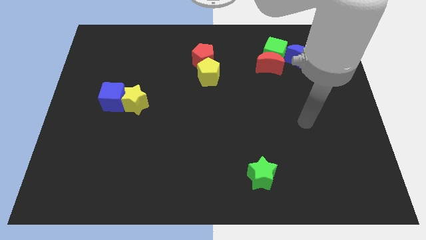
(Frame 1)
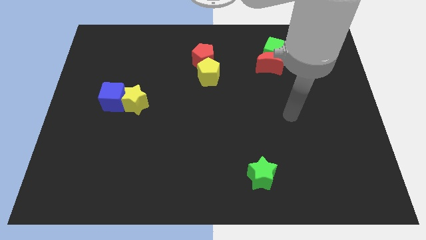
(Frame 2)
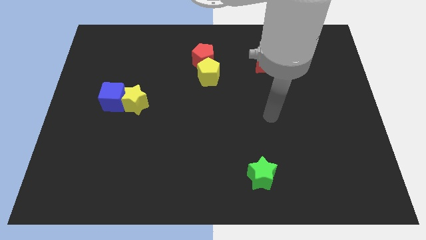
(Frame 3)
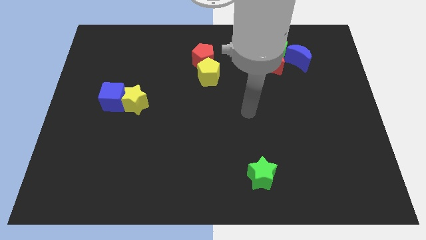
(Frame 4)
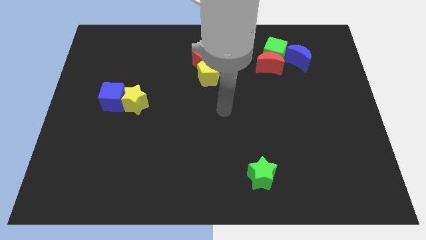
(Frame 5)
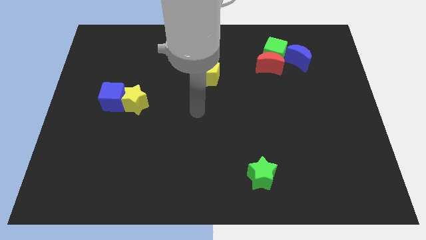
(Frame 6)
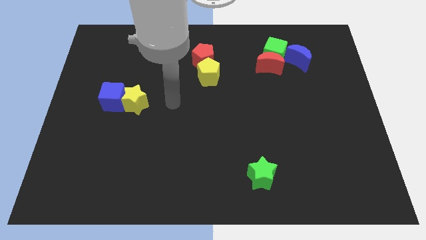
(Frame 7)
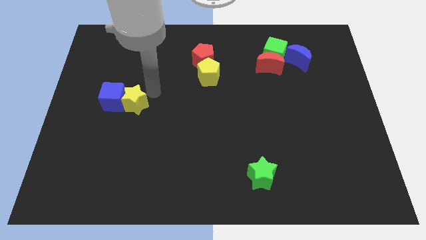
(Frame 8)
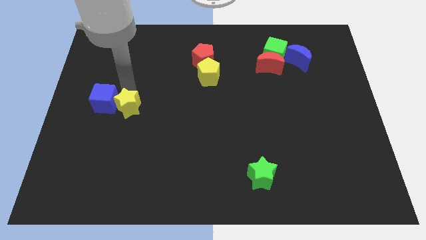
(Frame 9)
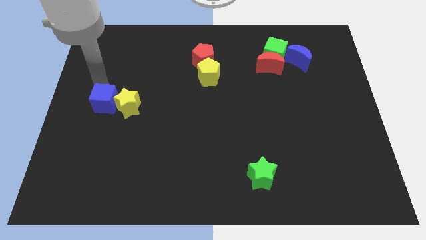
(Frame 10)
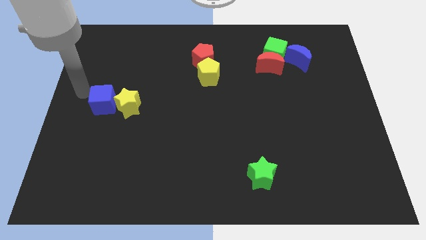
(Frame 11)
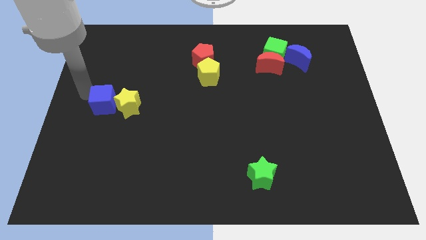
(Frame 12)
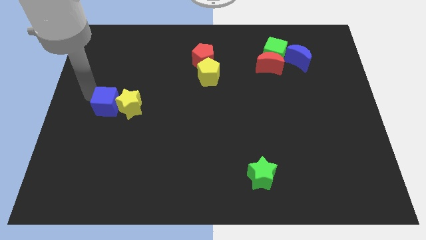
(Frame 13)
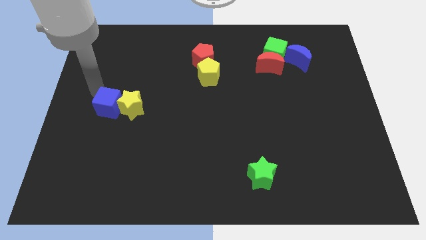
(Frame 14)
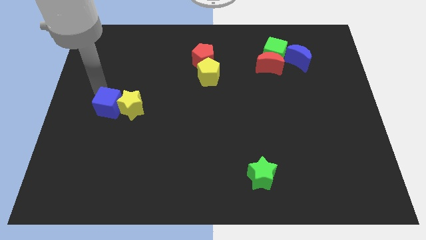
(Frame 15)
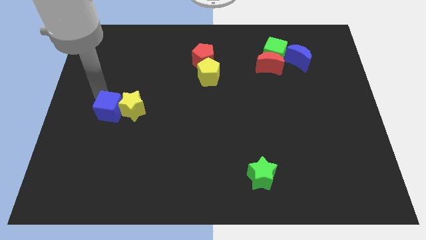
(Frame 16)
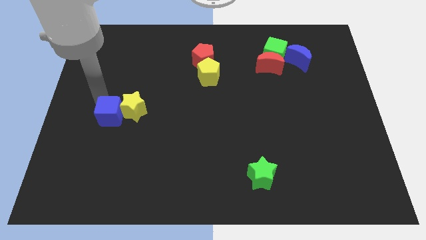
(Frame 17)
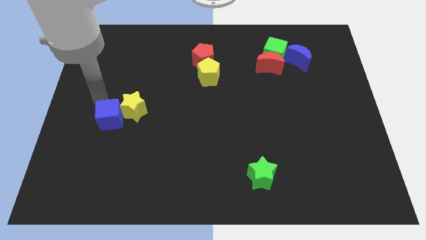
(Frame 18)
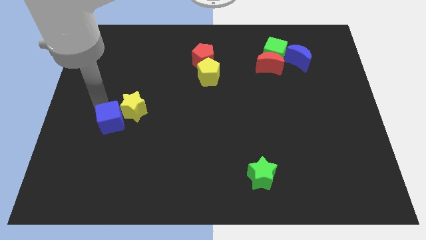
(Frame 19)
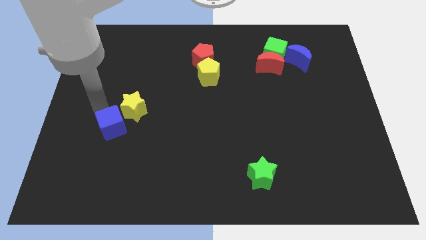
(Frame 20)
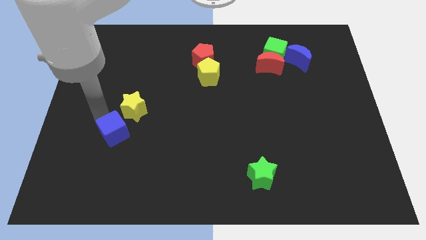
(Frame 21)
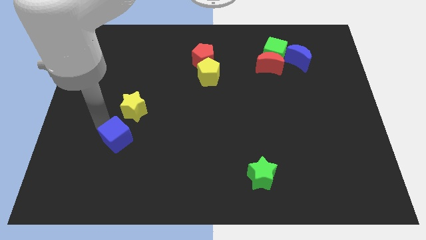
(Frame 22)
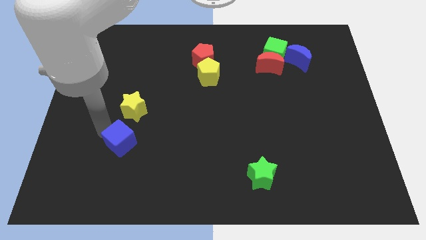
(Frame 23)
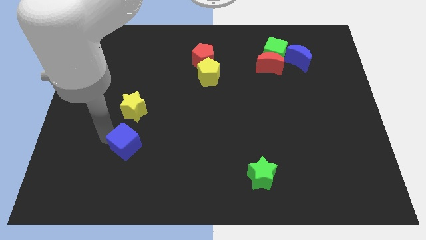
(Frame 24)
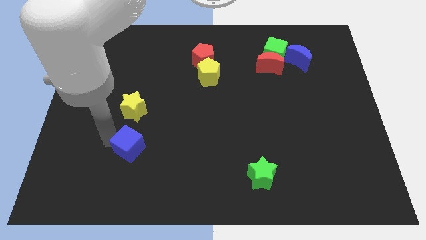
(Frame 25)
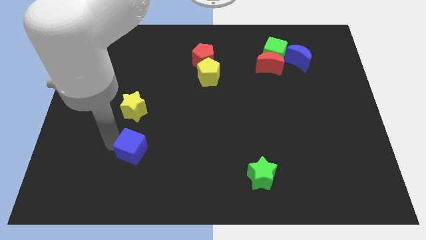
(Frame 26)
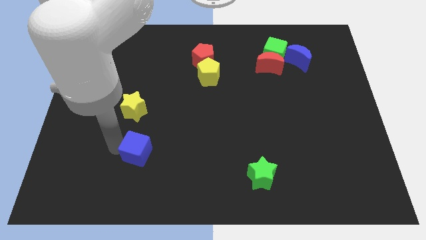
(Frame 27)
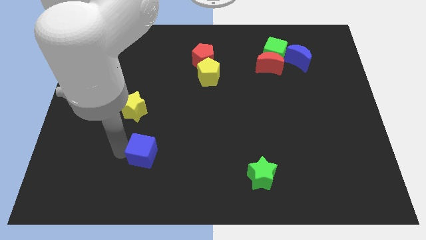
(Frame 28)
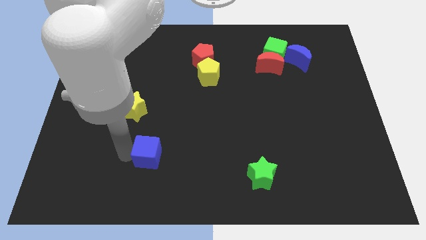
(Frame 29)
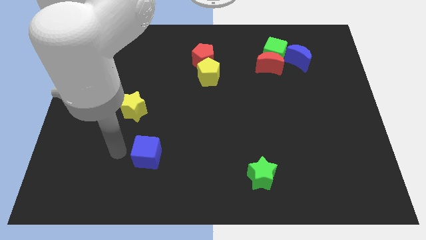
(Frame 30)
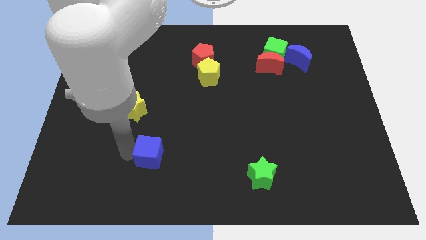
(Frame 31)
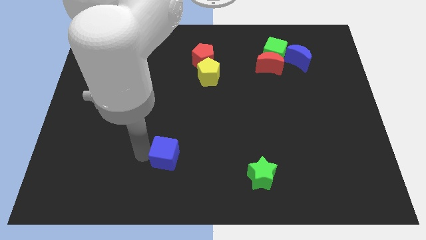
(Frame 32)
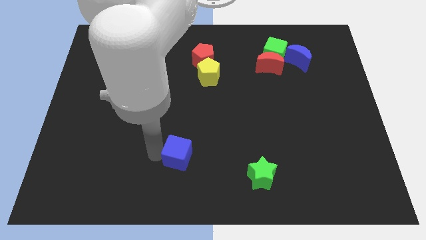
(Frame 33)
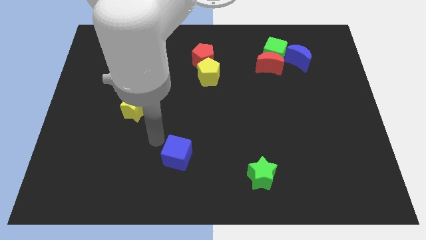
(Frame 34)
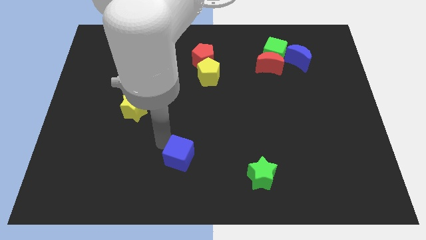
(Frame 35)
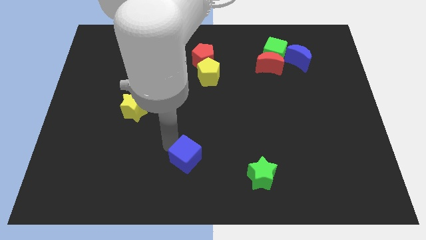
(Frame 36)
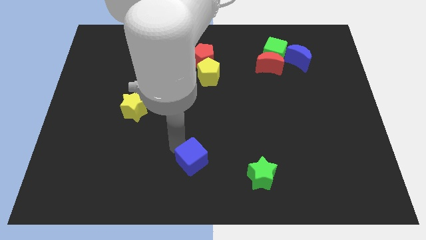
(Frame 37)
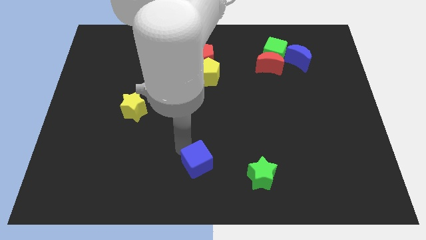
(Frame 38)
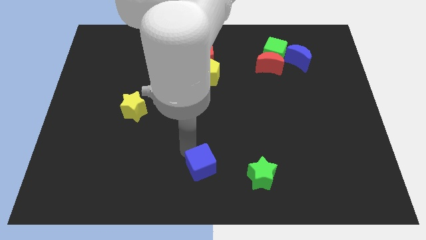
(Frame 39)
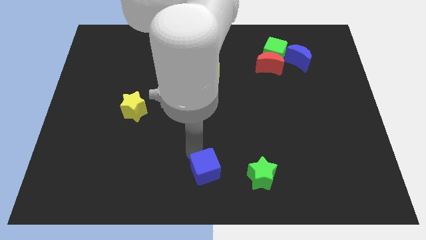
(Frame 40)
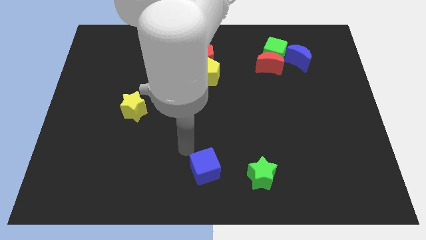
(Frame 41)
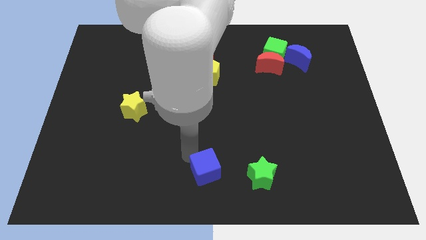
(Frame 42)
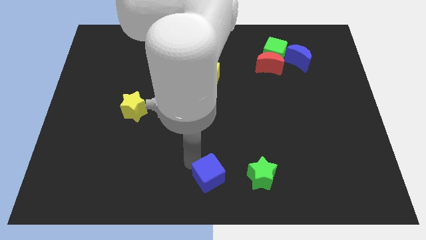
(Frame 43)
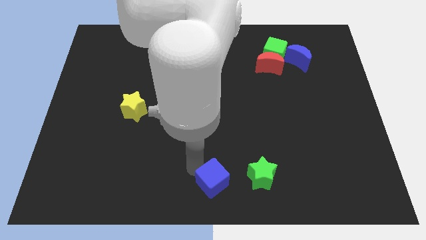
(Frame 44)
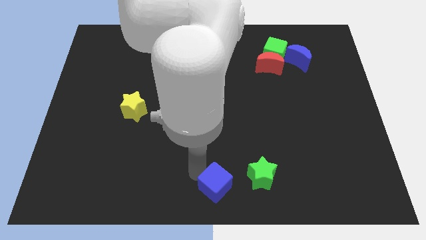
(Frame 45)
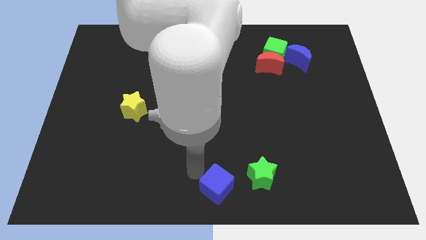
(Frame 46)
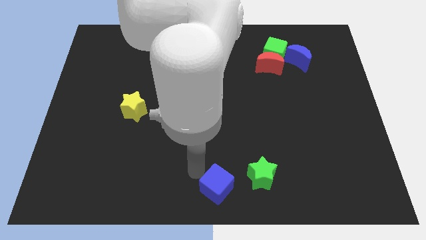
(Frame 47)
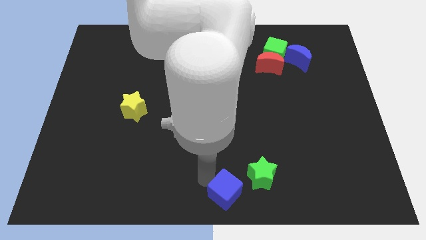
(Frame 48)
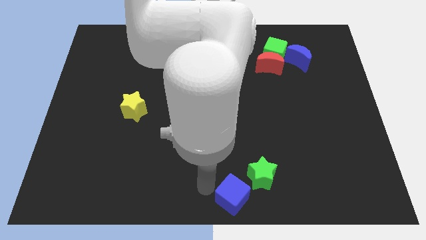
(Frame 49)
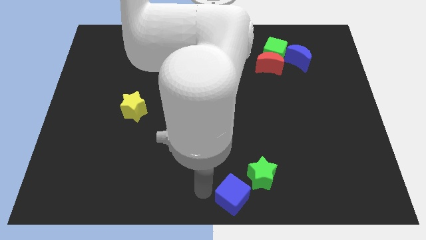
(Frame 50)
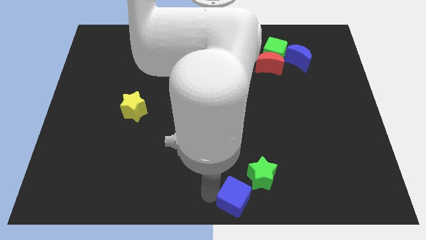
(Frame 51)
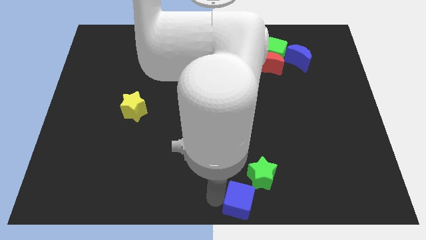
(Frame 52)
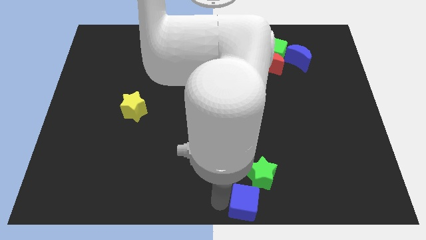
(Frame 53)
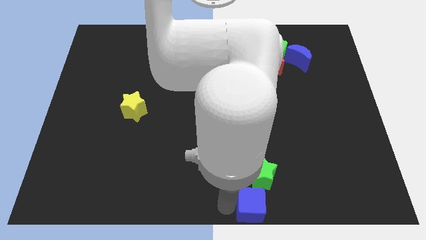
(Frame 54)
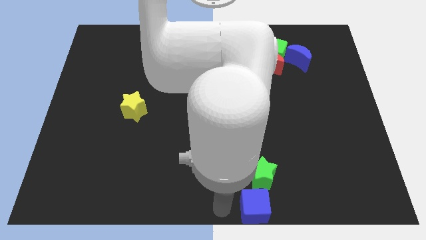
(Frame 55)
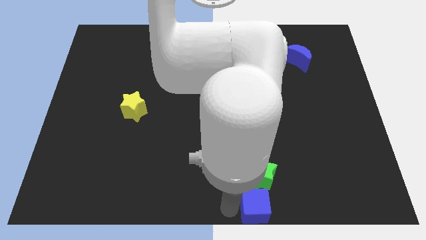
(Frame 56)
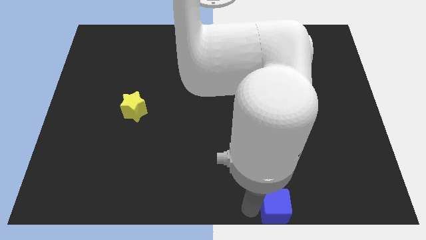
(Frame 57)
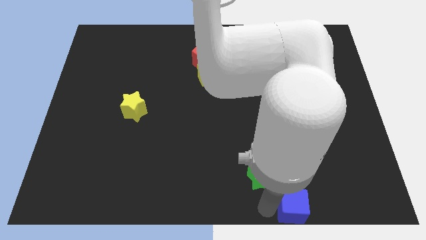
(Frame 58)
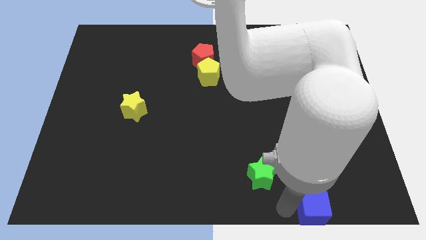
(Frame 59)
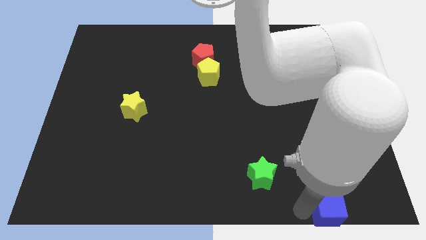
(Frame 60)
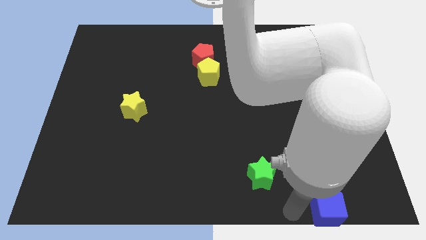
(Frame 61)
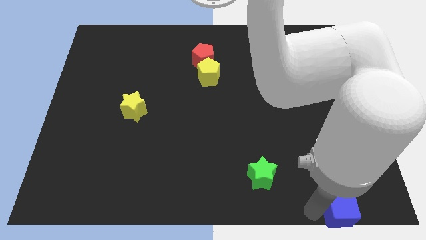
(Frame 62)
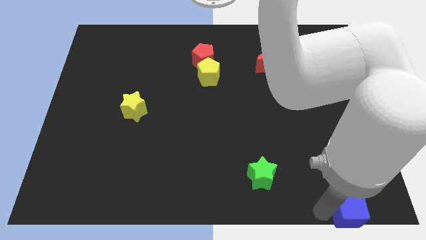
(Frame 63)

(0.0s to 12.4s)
push the blue cube to the bottom right of the board

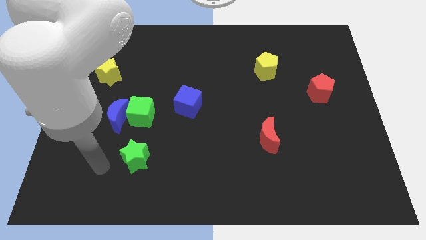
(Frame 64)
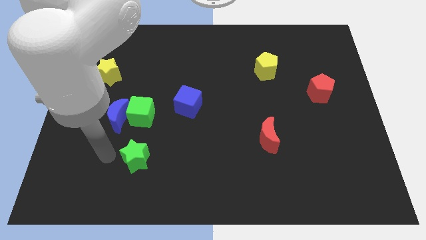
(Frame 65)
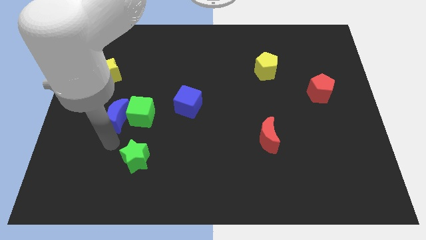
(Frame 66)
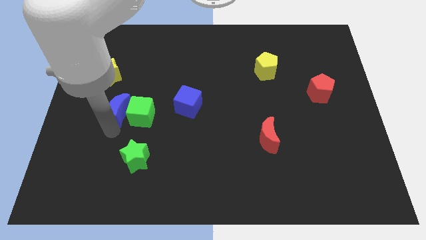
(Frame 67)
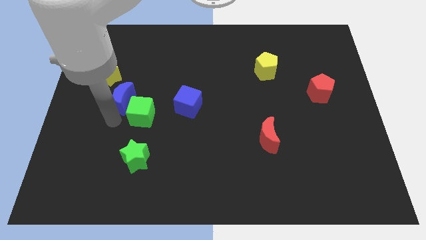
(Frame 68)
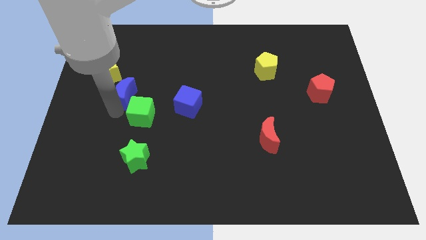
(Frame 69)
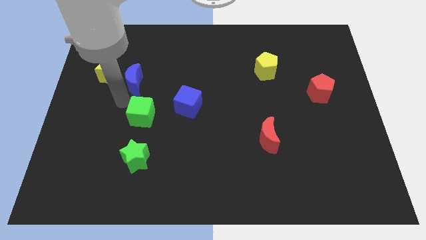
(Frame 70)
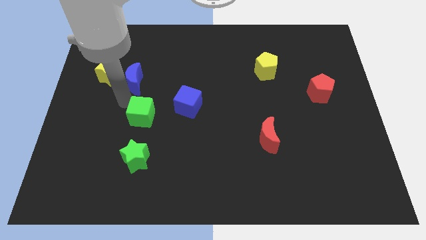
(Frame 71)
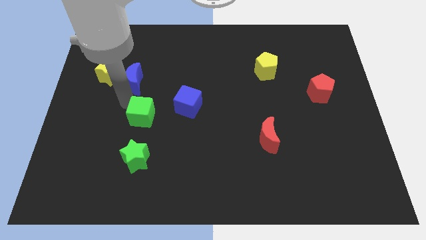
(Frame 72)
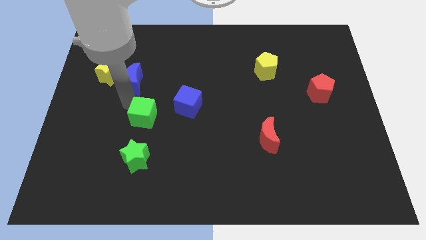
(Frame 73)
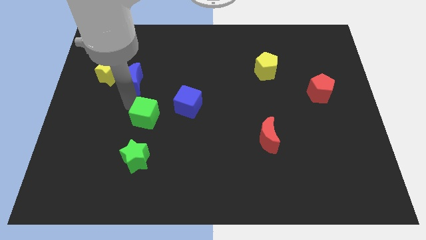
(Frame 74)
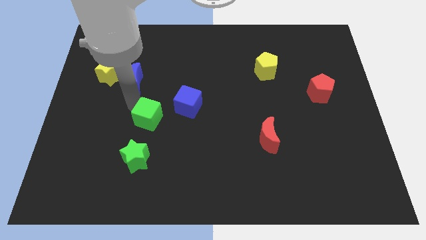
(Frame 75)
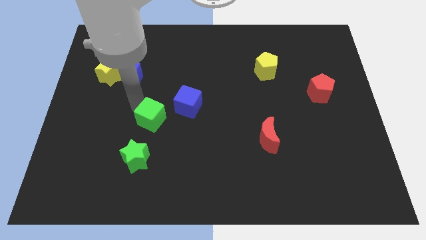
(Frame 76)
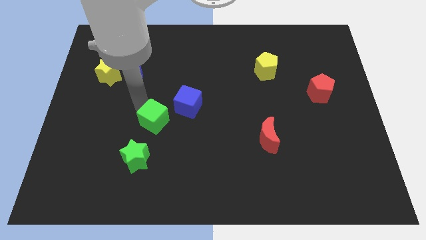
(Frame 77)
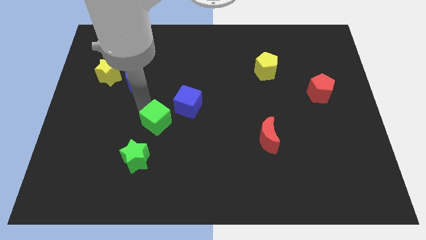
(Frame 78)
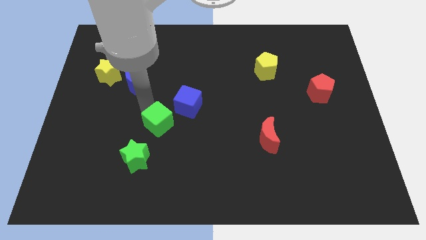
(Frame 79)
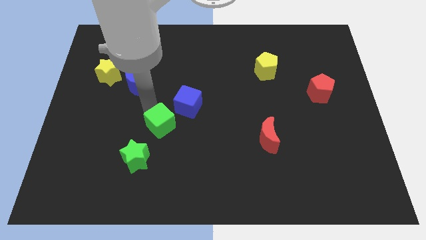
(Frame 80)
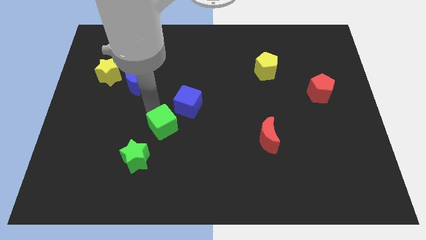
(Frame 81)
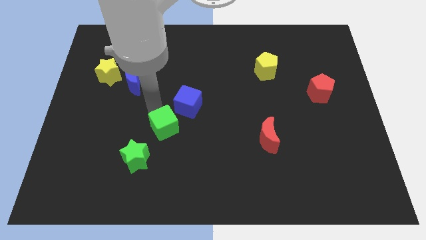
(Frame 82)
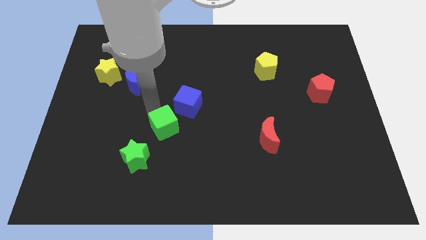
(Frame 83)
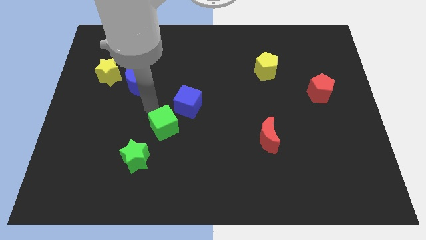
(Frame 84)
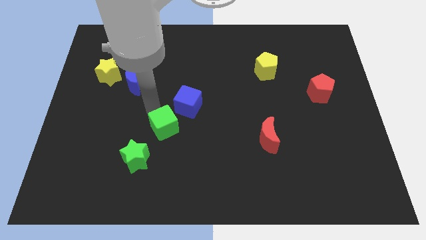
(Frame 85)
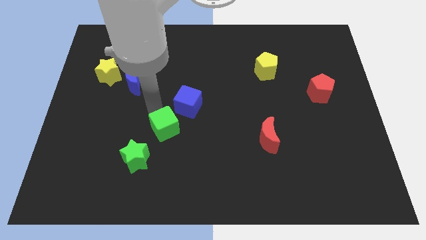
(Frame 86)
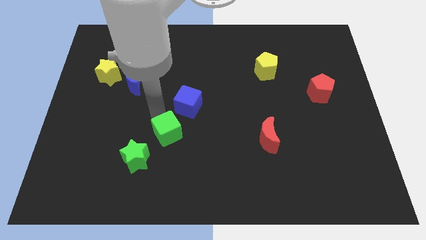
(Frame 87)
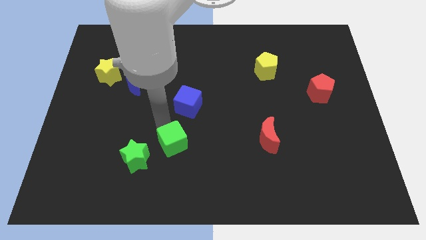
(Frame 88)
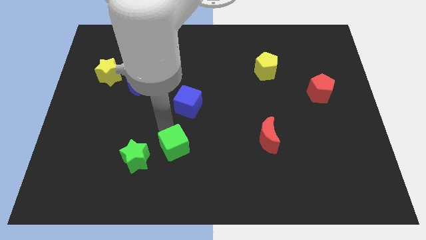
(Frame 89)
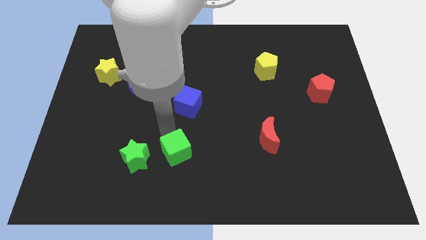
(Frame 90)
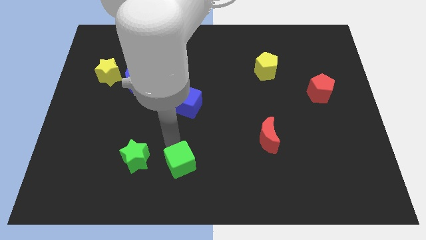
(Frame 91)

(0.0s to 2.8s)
move the green cube to the bottom
